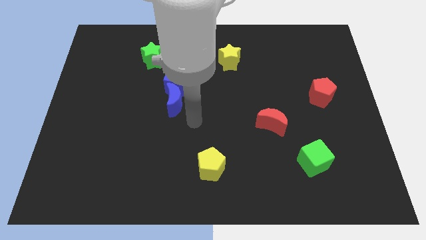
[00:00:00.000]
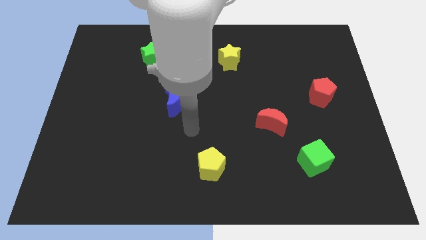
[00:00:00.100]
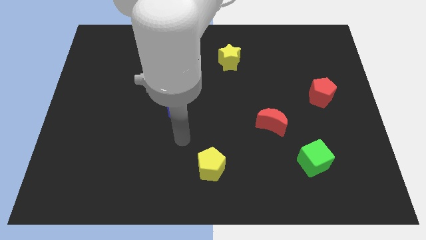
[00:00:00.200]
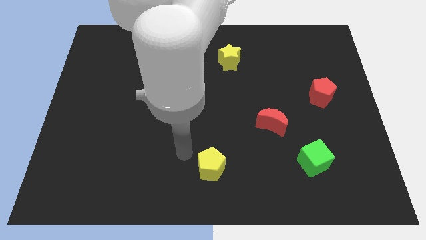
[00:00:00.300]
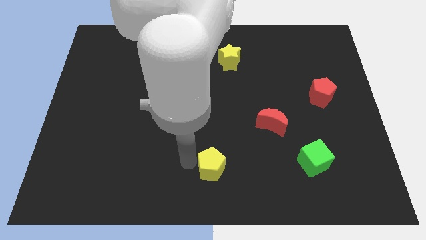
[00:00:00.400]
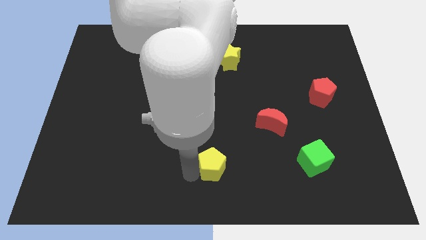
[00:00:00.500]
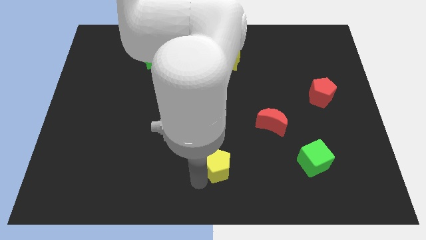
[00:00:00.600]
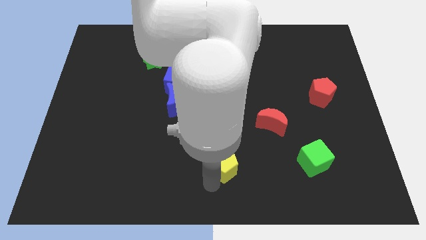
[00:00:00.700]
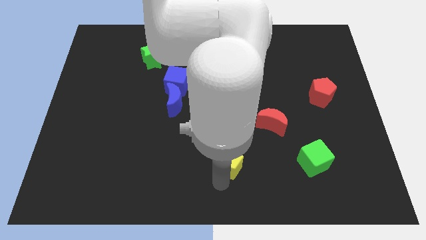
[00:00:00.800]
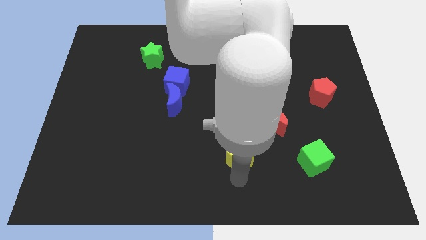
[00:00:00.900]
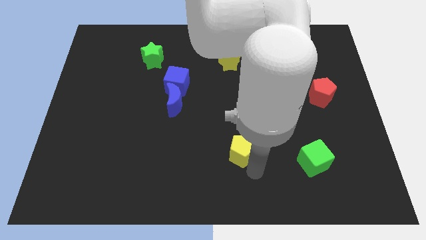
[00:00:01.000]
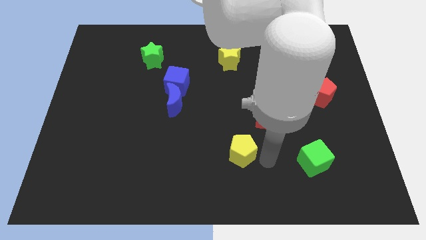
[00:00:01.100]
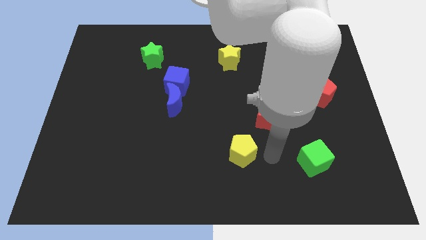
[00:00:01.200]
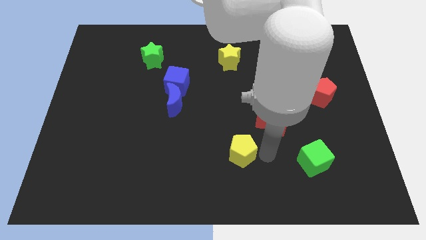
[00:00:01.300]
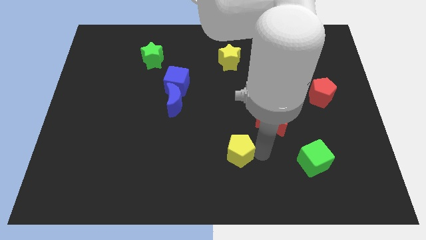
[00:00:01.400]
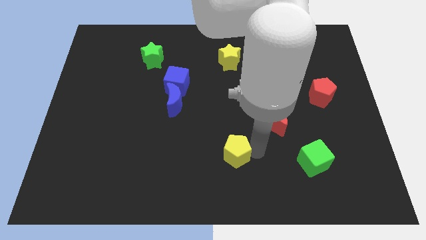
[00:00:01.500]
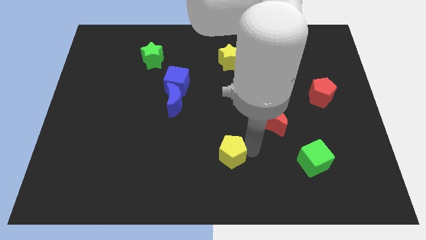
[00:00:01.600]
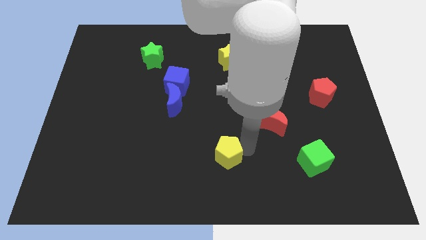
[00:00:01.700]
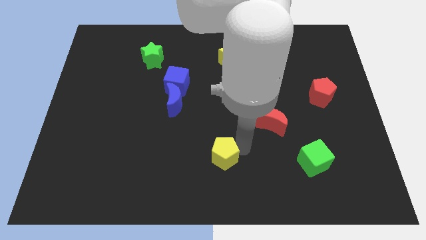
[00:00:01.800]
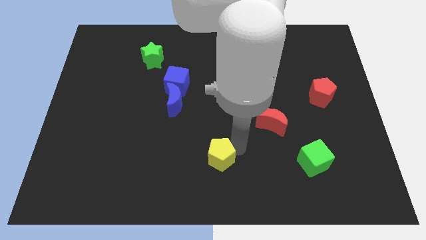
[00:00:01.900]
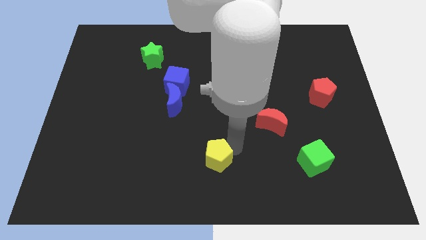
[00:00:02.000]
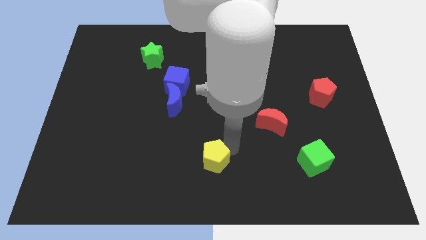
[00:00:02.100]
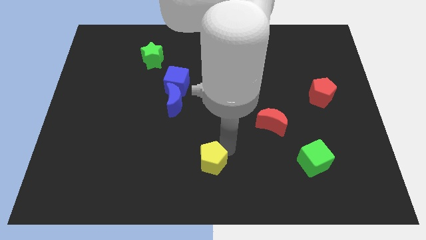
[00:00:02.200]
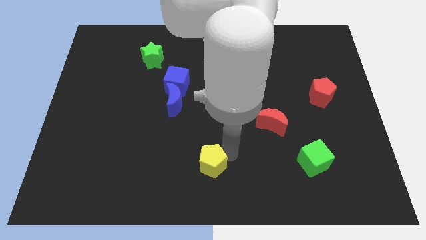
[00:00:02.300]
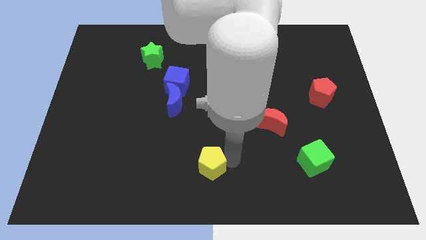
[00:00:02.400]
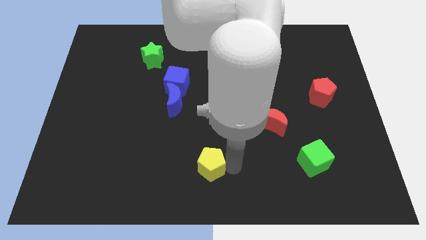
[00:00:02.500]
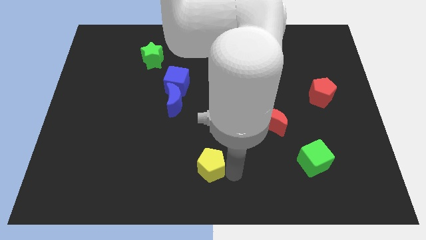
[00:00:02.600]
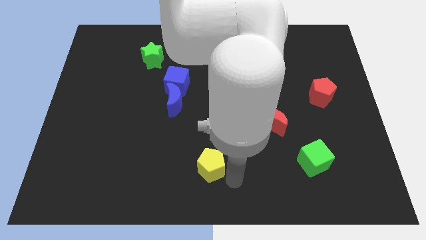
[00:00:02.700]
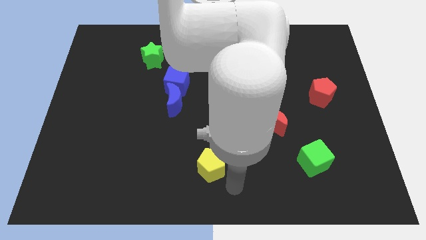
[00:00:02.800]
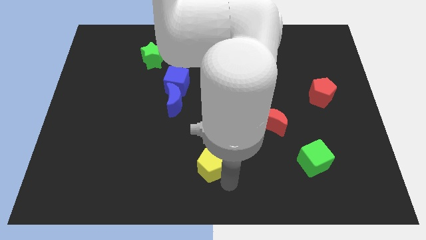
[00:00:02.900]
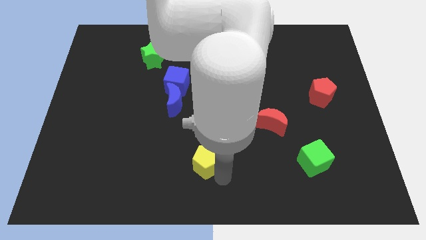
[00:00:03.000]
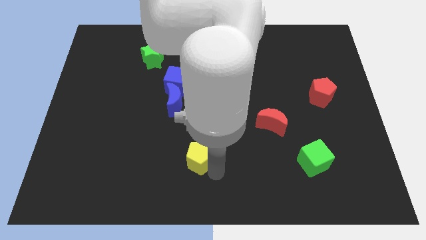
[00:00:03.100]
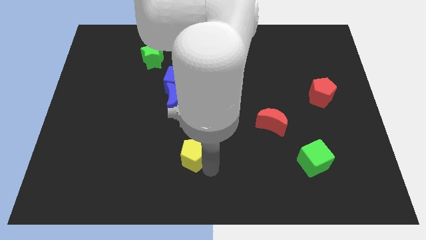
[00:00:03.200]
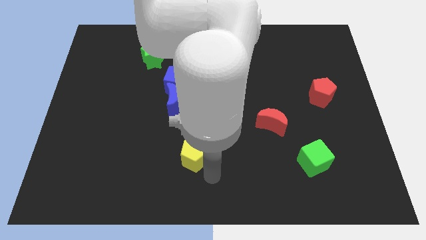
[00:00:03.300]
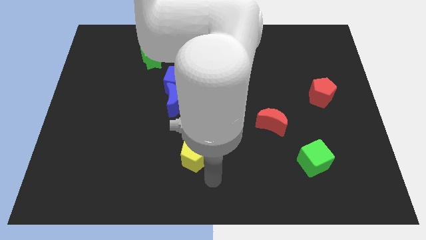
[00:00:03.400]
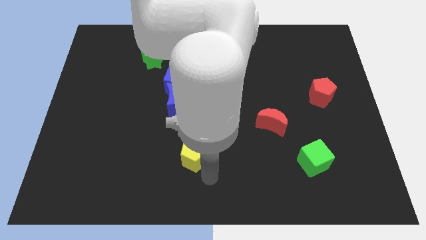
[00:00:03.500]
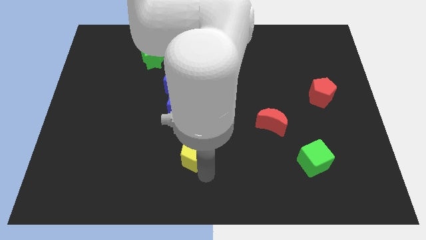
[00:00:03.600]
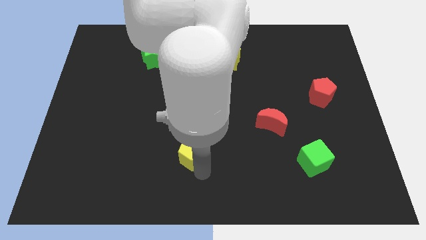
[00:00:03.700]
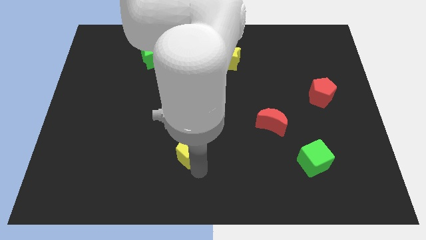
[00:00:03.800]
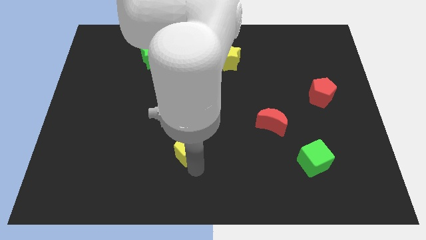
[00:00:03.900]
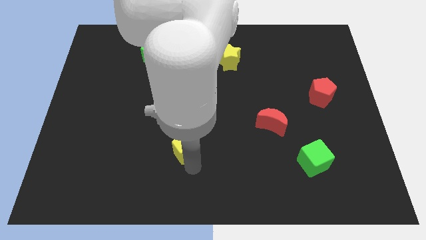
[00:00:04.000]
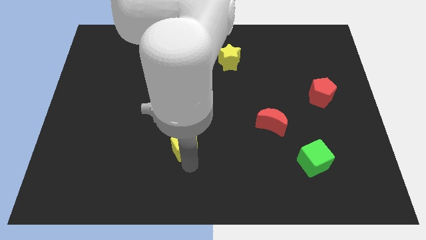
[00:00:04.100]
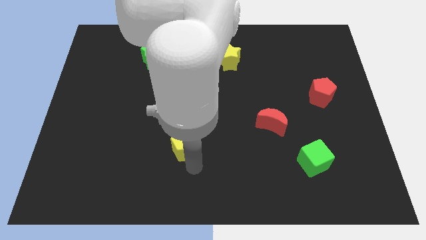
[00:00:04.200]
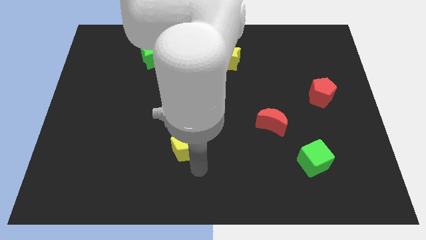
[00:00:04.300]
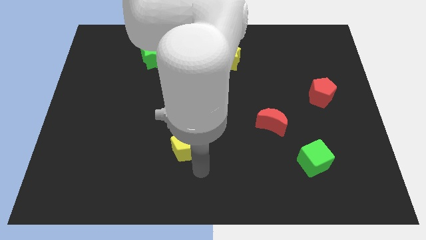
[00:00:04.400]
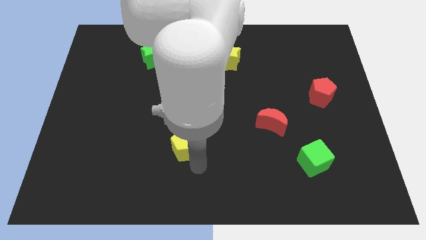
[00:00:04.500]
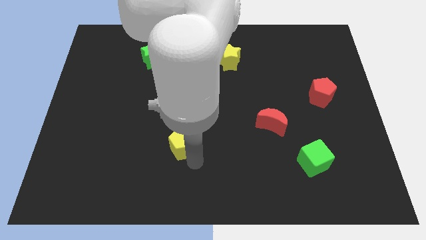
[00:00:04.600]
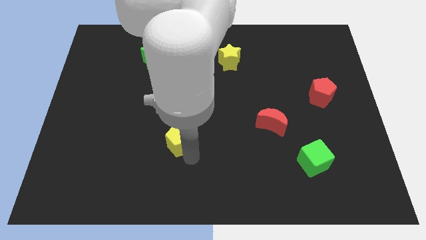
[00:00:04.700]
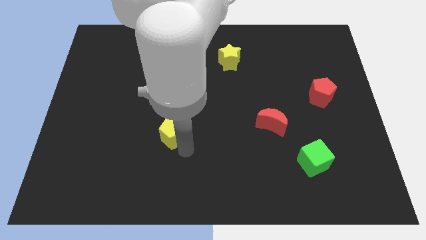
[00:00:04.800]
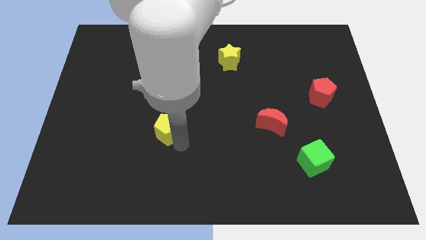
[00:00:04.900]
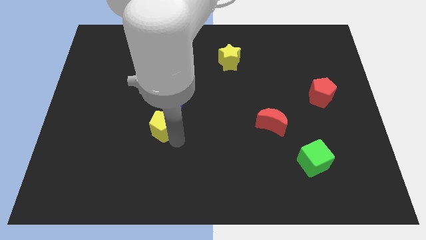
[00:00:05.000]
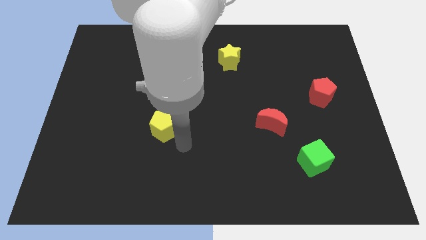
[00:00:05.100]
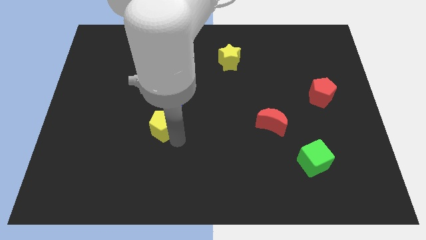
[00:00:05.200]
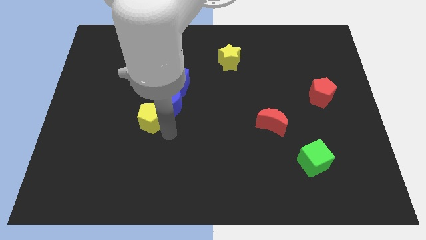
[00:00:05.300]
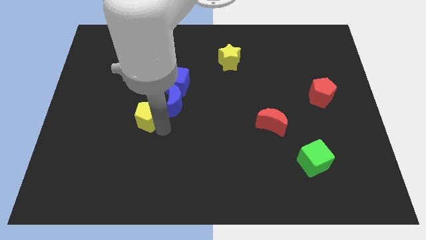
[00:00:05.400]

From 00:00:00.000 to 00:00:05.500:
move the yellow pentagon to the left side of the blue moon

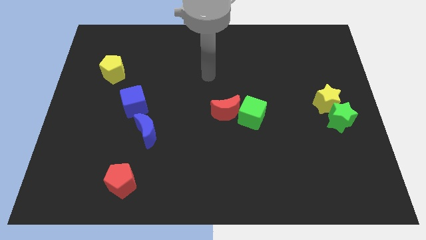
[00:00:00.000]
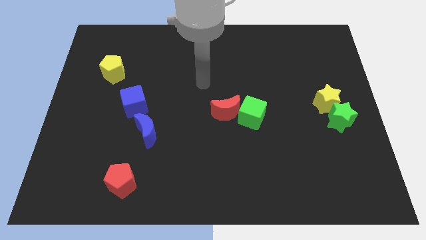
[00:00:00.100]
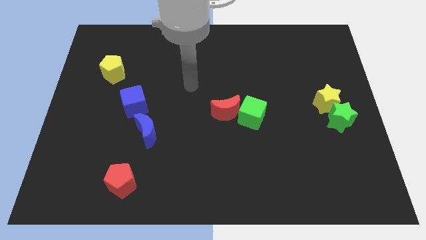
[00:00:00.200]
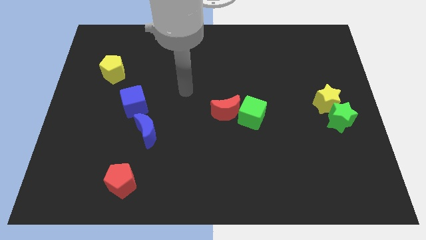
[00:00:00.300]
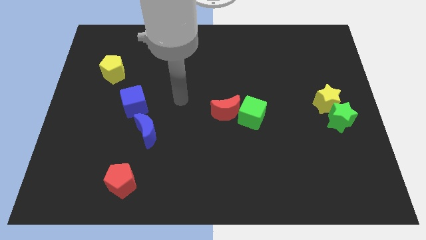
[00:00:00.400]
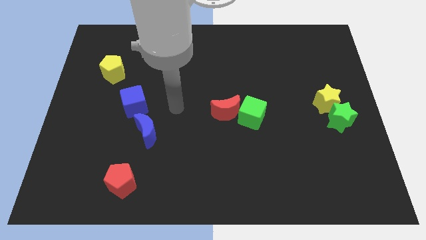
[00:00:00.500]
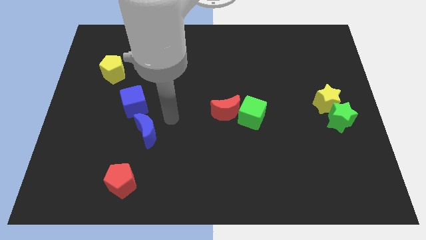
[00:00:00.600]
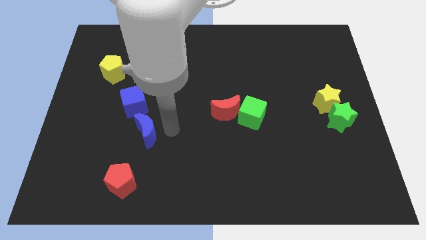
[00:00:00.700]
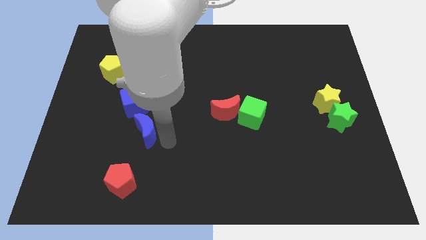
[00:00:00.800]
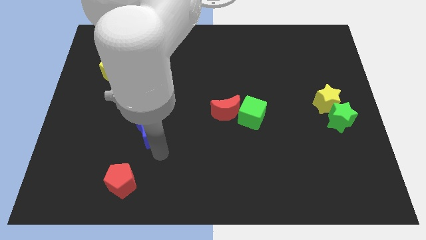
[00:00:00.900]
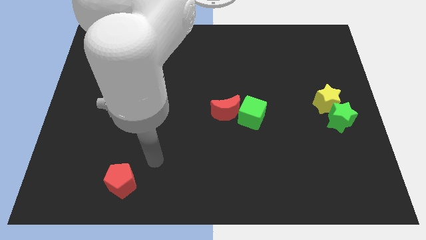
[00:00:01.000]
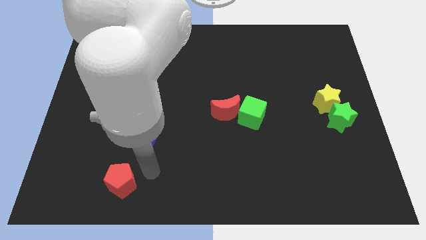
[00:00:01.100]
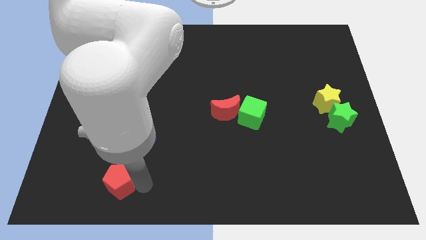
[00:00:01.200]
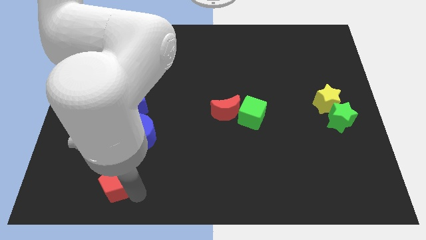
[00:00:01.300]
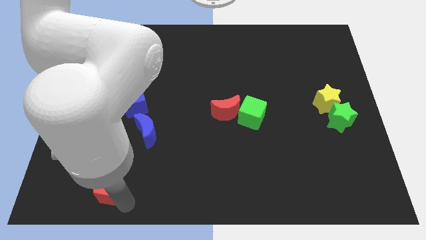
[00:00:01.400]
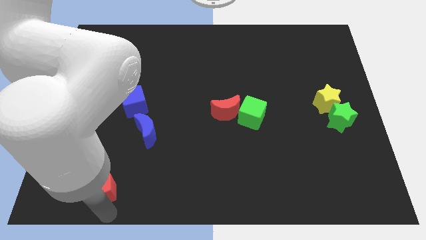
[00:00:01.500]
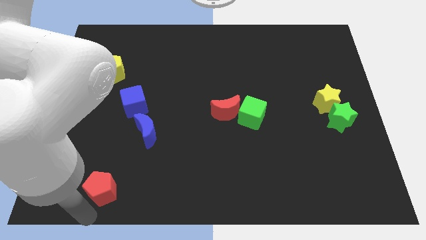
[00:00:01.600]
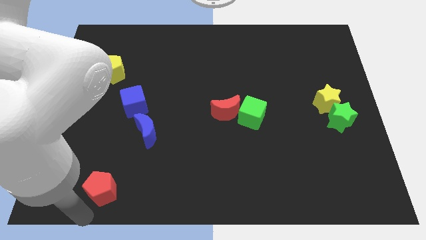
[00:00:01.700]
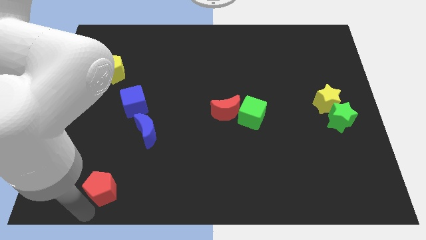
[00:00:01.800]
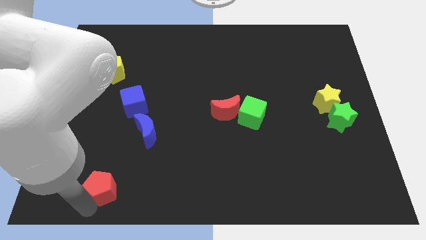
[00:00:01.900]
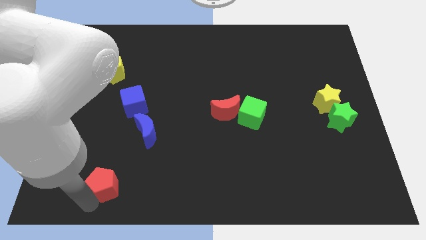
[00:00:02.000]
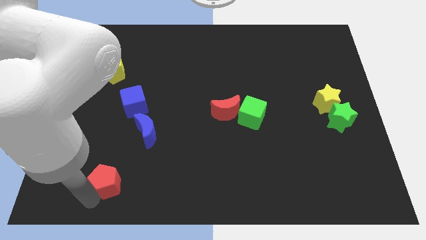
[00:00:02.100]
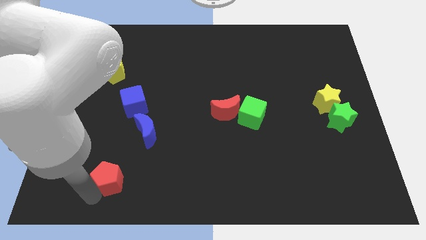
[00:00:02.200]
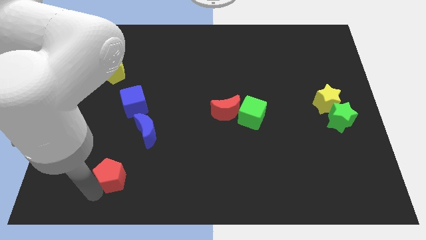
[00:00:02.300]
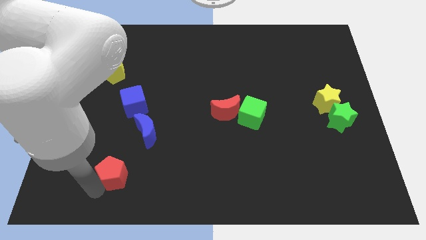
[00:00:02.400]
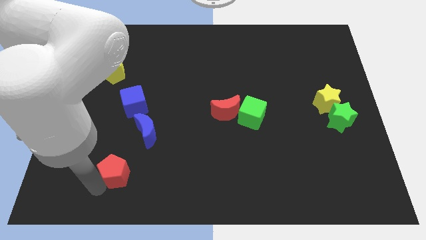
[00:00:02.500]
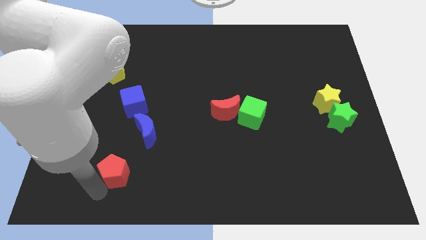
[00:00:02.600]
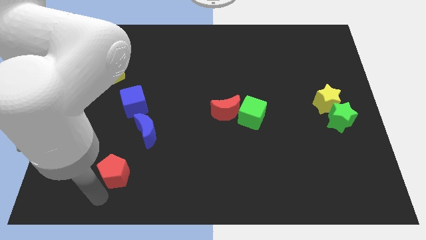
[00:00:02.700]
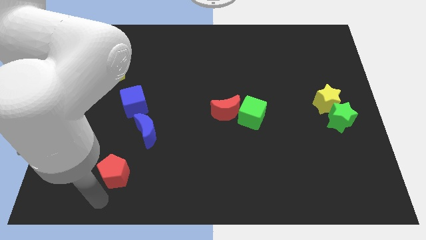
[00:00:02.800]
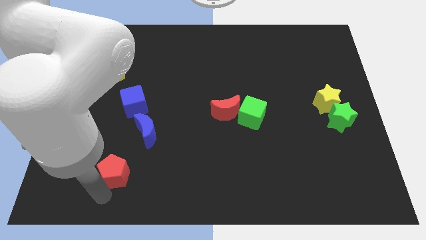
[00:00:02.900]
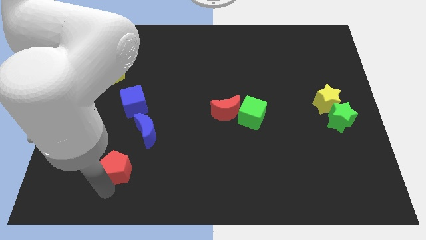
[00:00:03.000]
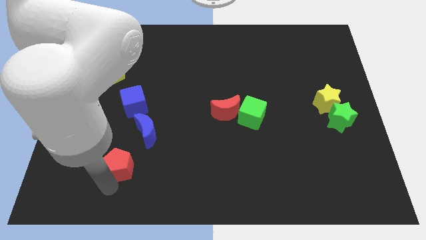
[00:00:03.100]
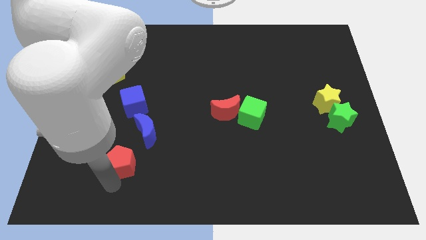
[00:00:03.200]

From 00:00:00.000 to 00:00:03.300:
put the red pentagon to the bottom side of the blue cube
